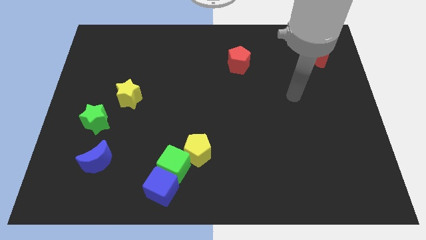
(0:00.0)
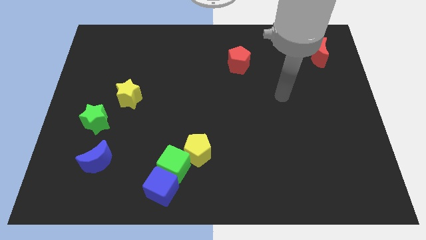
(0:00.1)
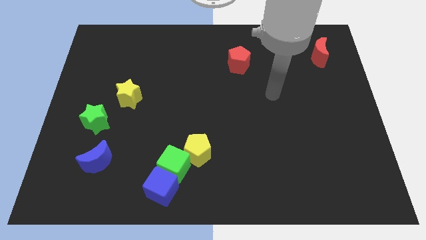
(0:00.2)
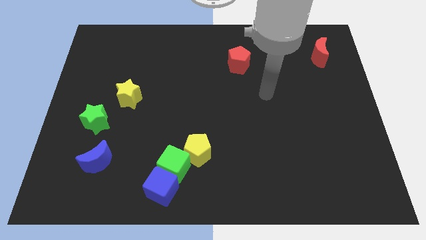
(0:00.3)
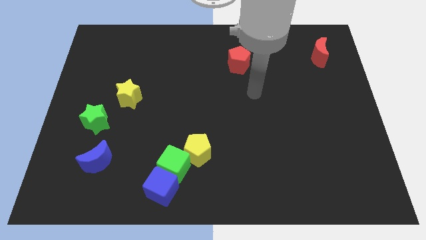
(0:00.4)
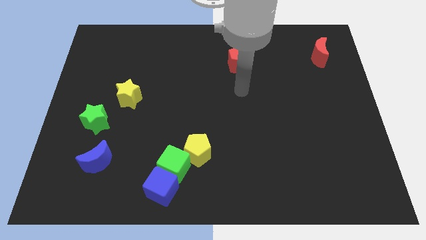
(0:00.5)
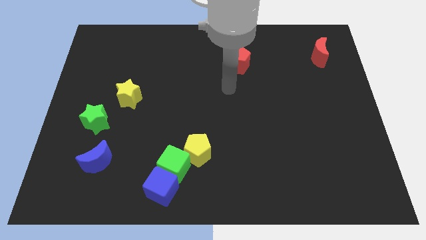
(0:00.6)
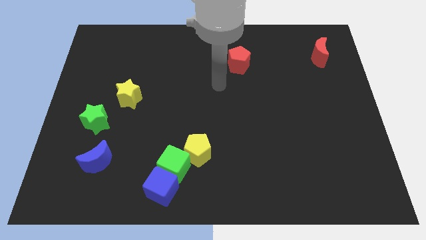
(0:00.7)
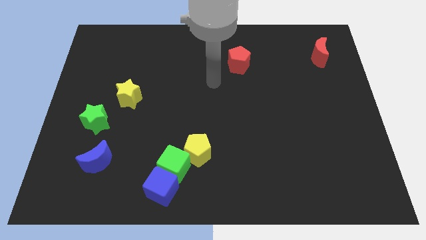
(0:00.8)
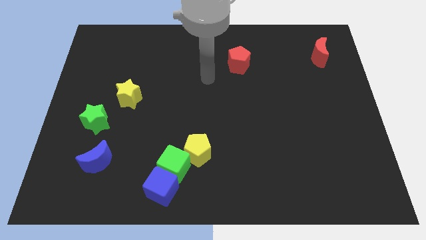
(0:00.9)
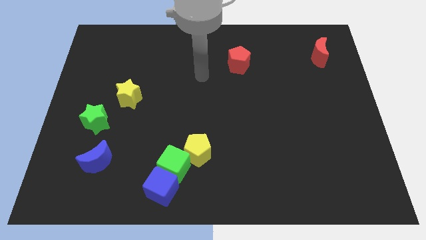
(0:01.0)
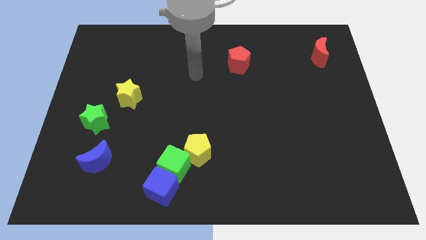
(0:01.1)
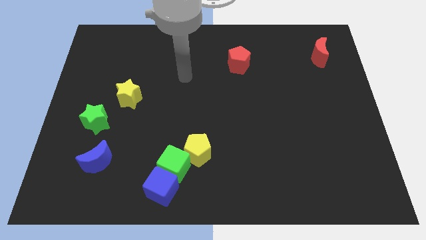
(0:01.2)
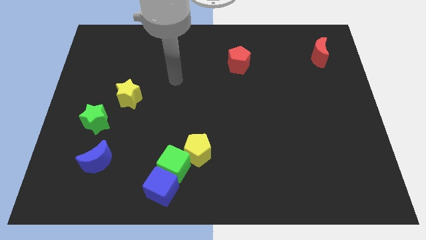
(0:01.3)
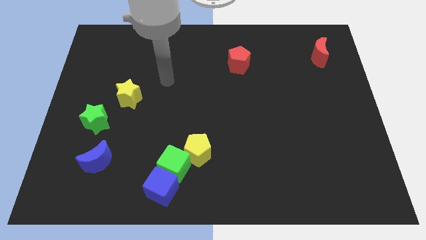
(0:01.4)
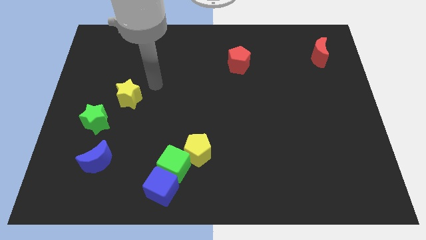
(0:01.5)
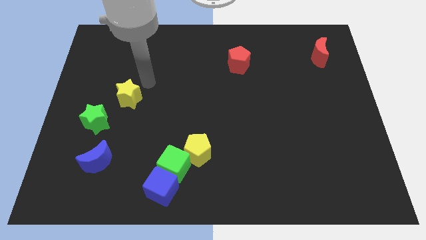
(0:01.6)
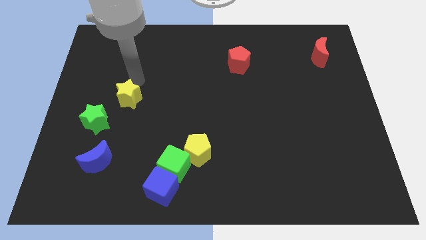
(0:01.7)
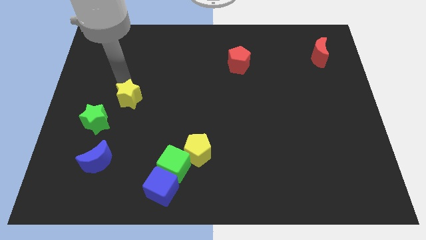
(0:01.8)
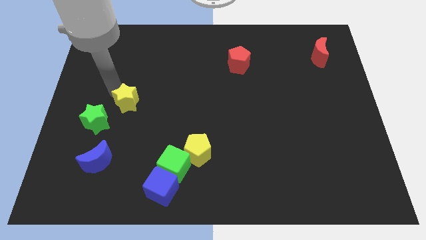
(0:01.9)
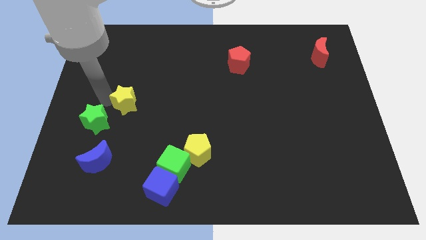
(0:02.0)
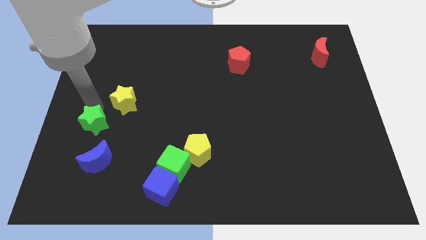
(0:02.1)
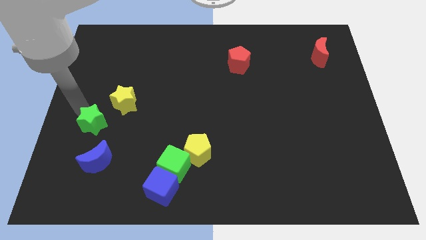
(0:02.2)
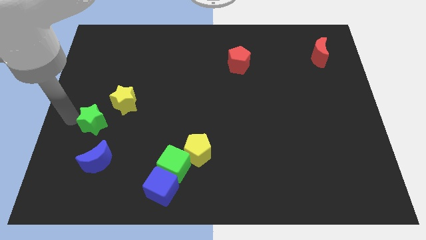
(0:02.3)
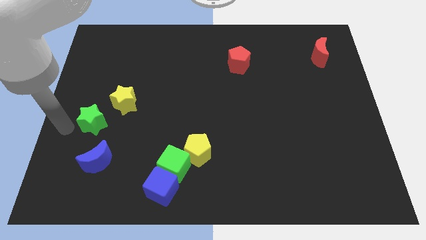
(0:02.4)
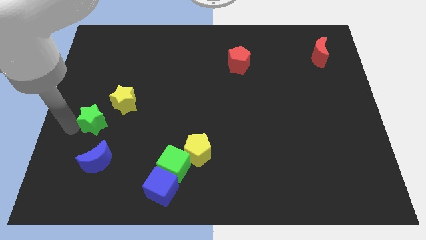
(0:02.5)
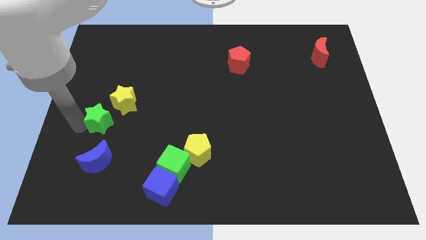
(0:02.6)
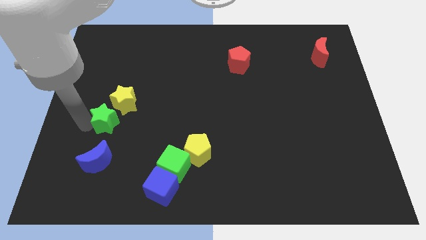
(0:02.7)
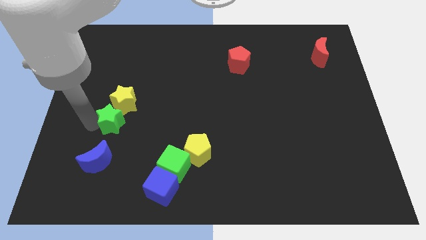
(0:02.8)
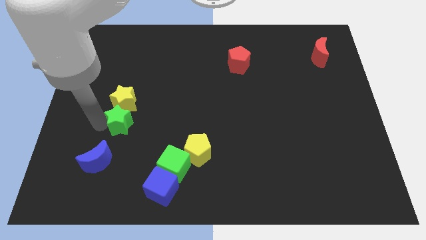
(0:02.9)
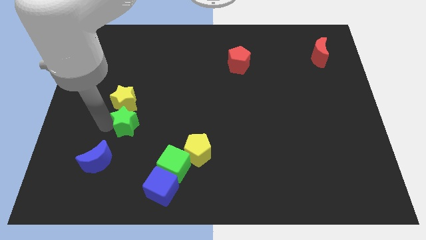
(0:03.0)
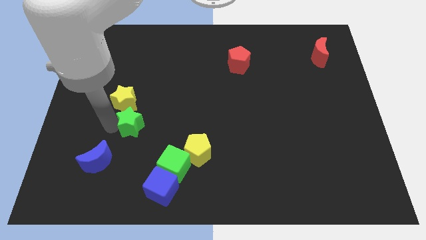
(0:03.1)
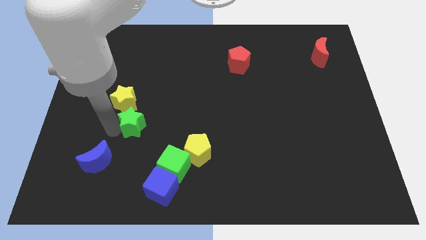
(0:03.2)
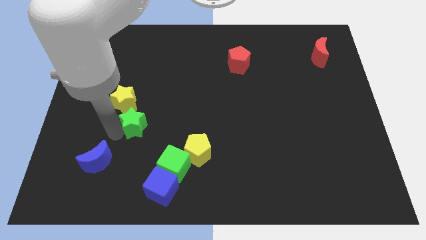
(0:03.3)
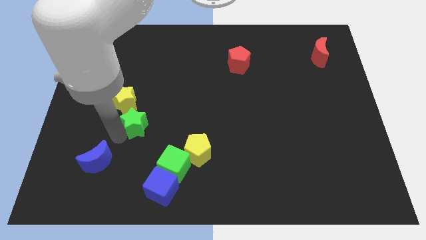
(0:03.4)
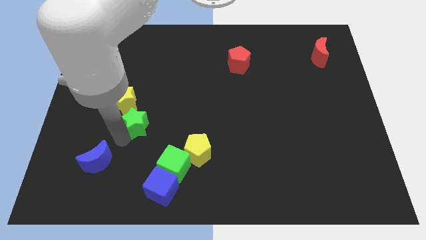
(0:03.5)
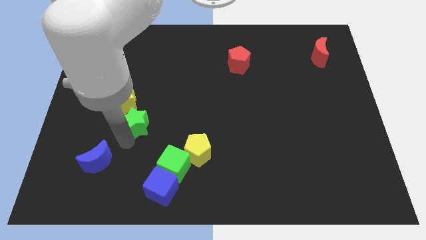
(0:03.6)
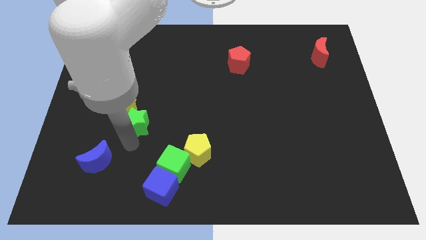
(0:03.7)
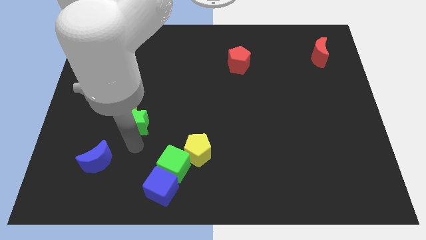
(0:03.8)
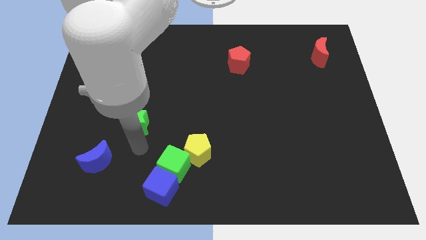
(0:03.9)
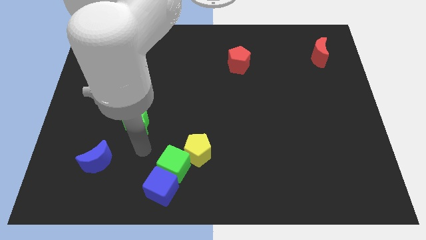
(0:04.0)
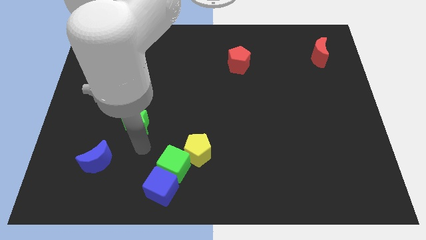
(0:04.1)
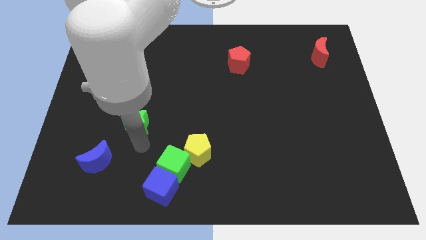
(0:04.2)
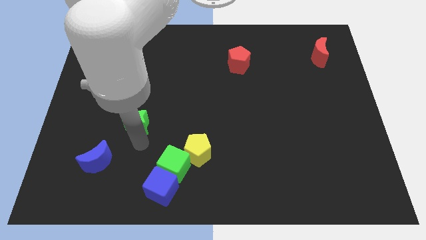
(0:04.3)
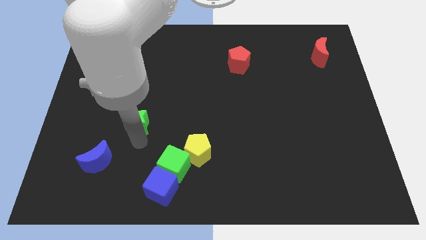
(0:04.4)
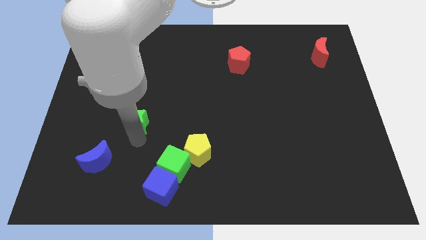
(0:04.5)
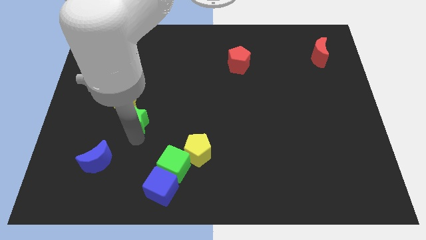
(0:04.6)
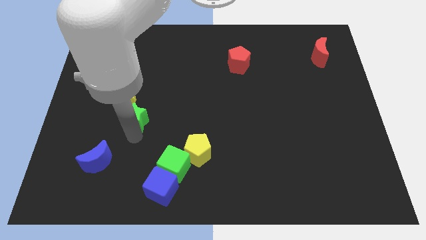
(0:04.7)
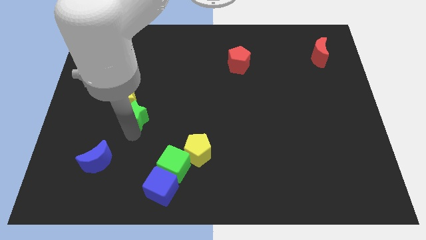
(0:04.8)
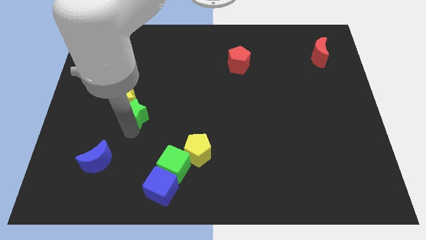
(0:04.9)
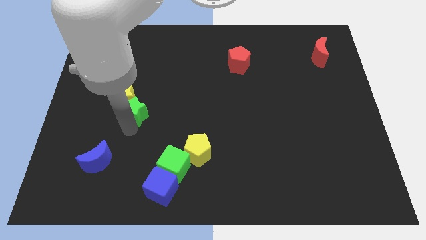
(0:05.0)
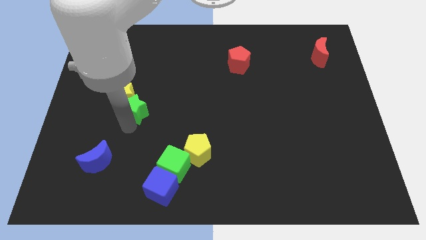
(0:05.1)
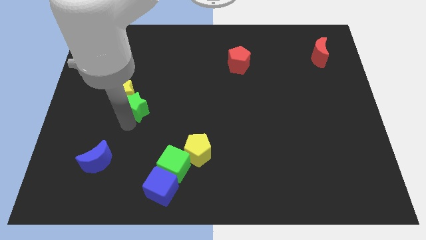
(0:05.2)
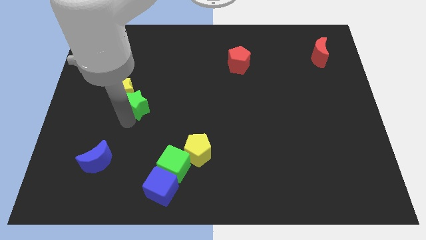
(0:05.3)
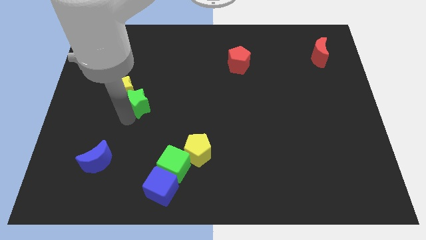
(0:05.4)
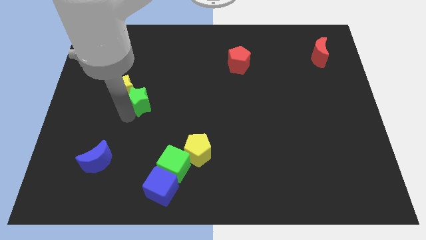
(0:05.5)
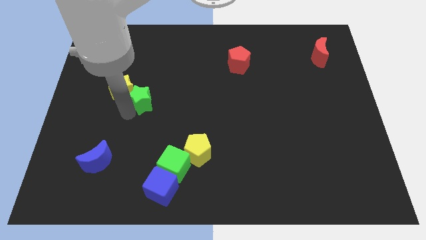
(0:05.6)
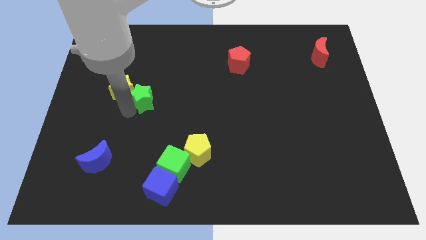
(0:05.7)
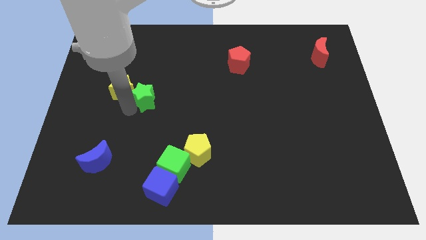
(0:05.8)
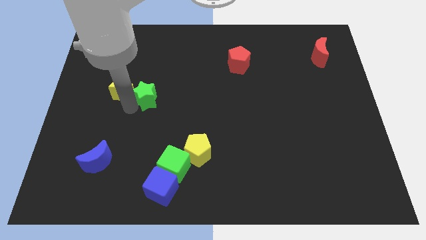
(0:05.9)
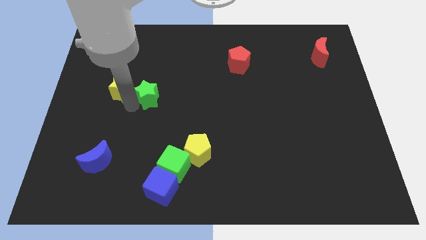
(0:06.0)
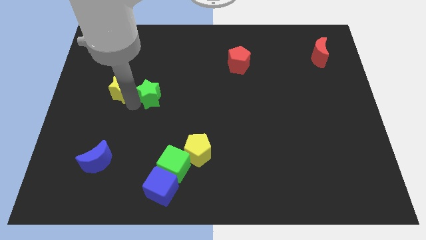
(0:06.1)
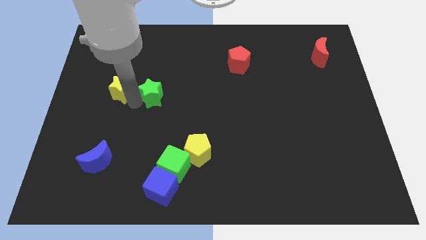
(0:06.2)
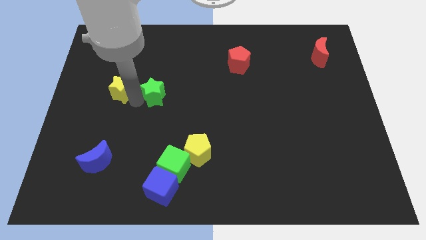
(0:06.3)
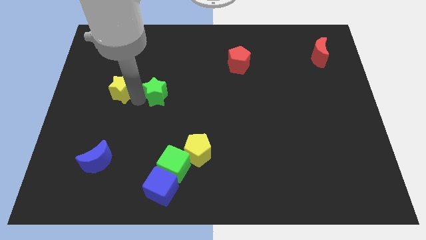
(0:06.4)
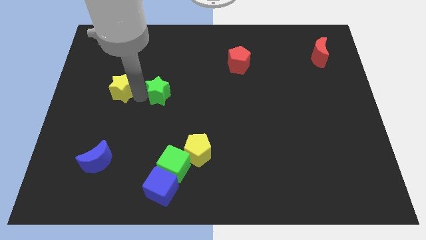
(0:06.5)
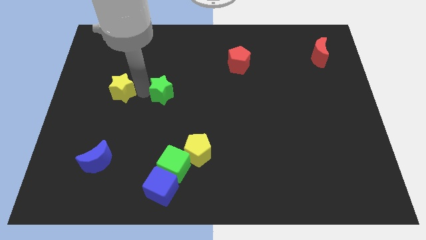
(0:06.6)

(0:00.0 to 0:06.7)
put the green star to the center
